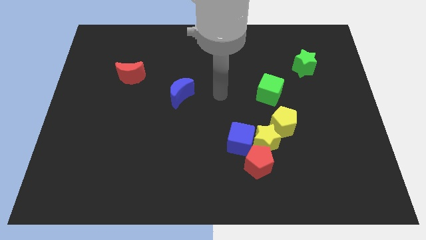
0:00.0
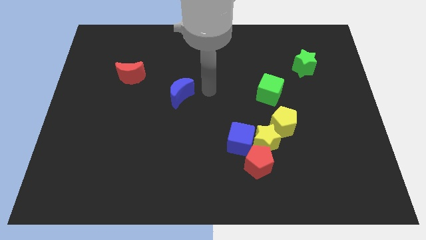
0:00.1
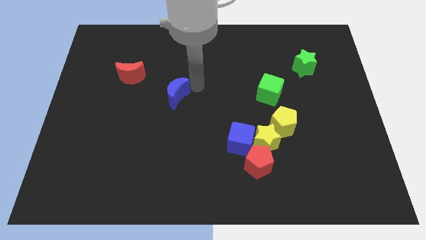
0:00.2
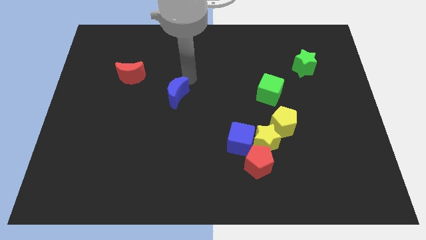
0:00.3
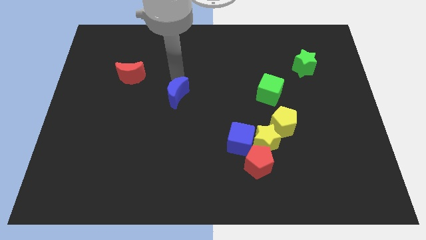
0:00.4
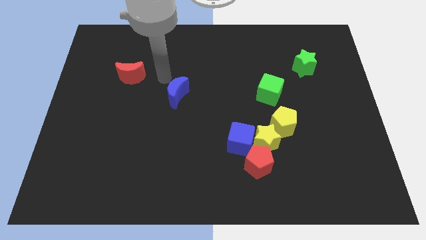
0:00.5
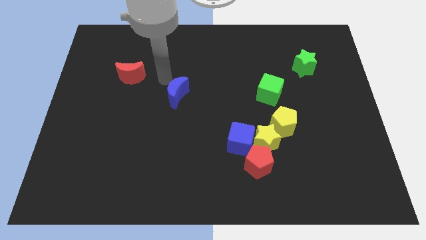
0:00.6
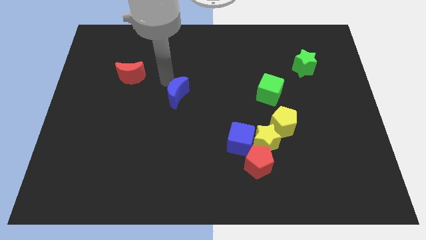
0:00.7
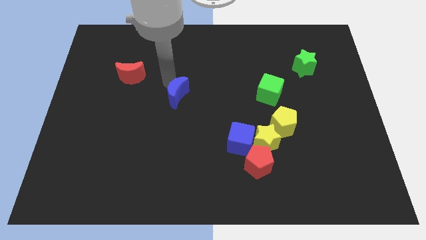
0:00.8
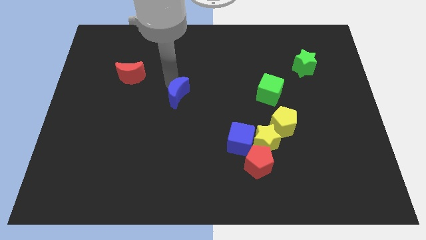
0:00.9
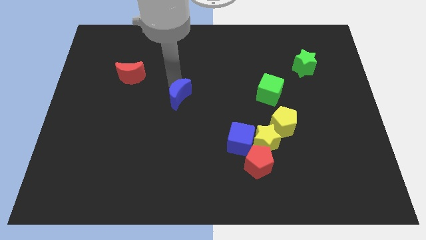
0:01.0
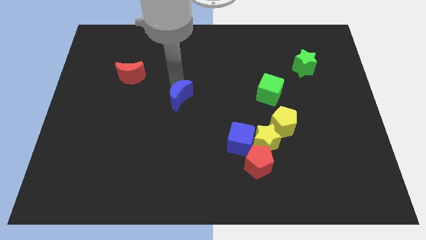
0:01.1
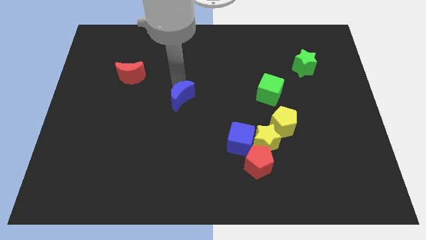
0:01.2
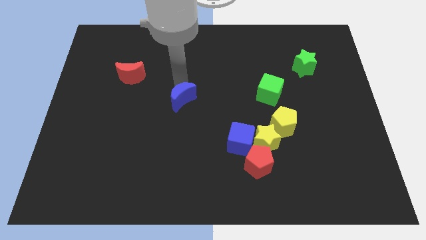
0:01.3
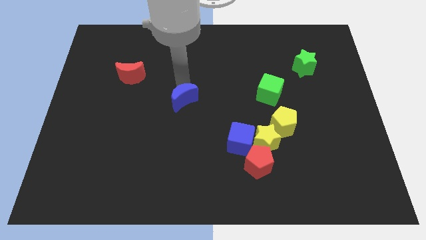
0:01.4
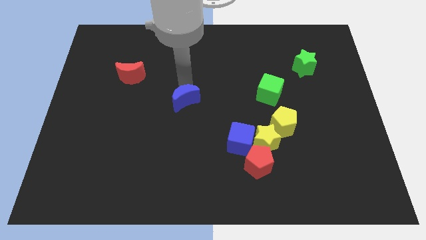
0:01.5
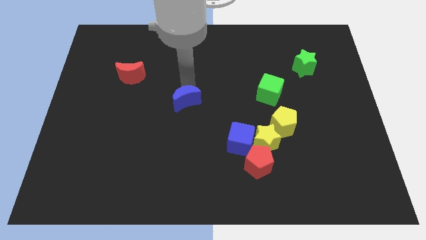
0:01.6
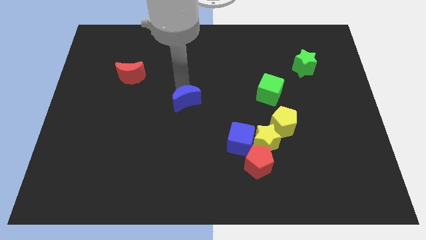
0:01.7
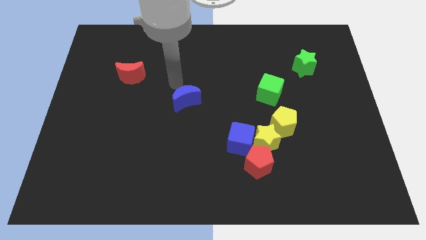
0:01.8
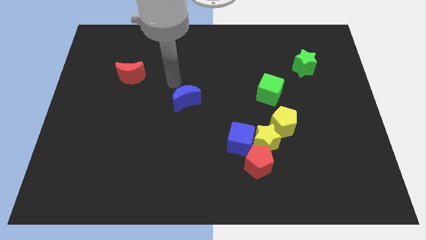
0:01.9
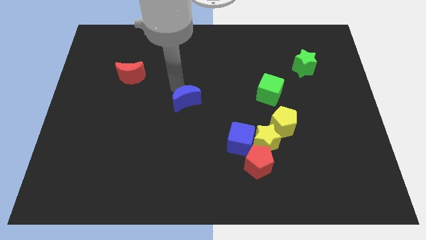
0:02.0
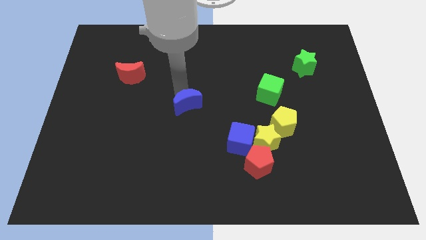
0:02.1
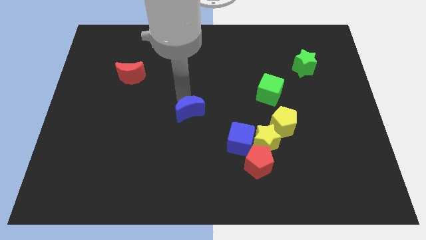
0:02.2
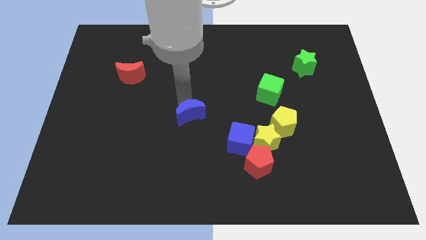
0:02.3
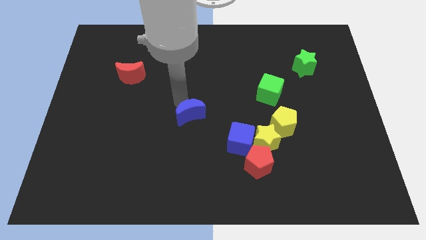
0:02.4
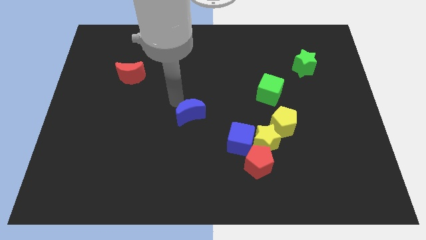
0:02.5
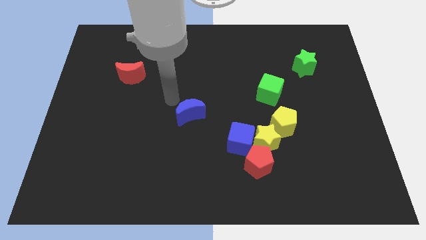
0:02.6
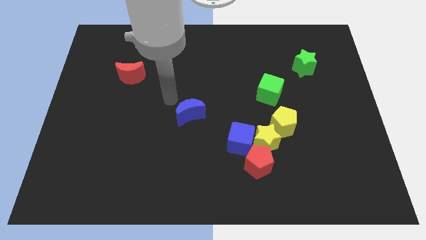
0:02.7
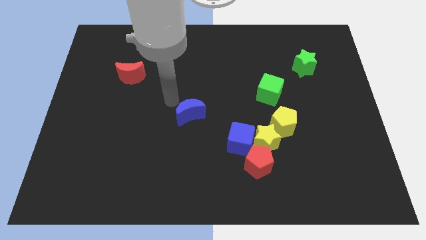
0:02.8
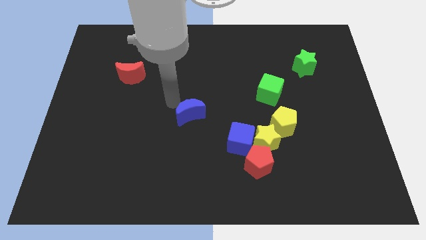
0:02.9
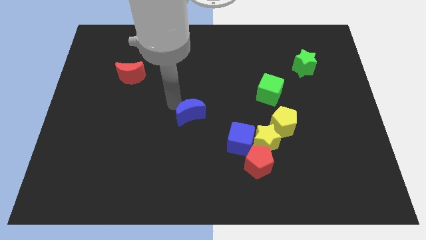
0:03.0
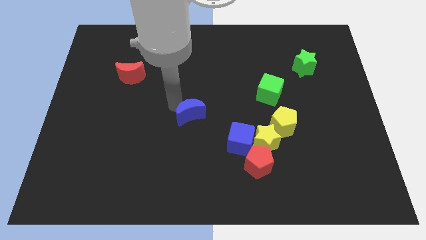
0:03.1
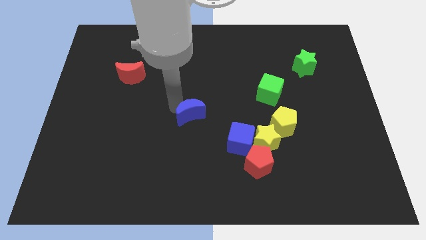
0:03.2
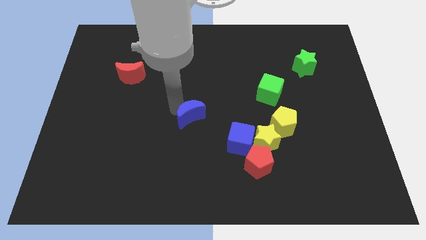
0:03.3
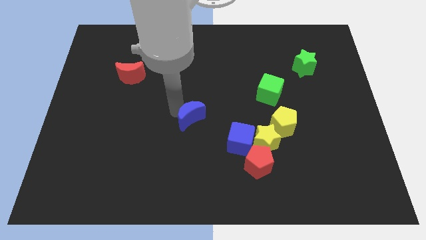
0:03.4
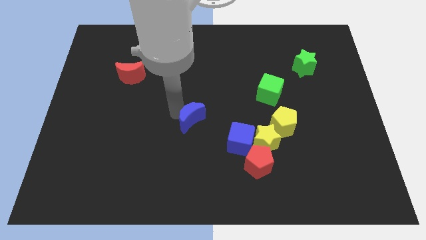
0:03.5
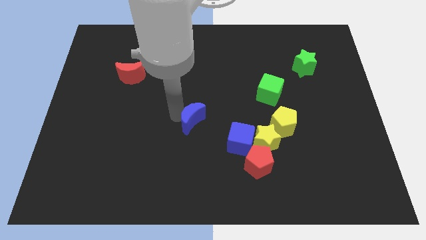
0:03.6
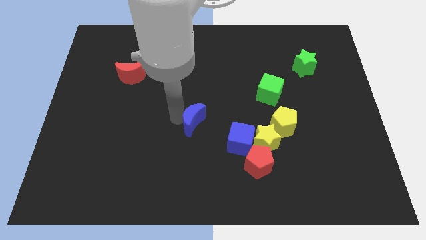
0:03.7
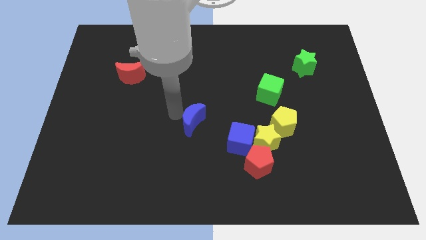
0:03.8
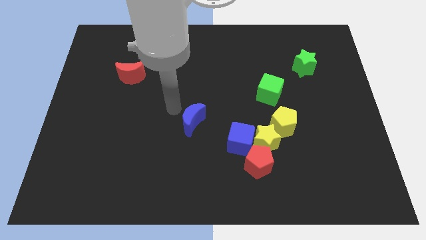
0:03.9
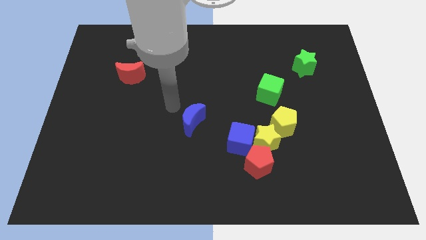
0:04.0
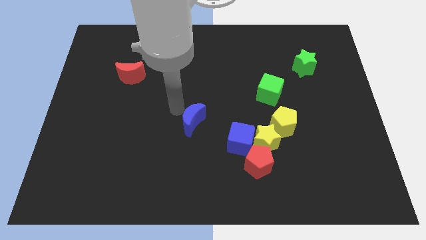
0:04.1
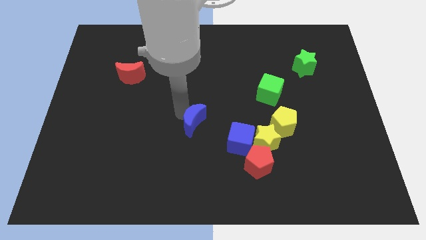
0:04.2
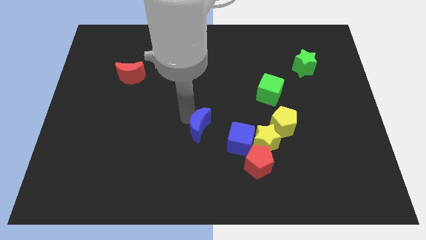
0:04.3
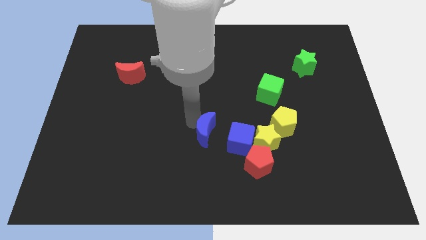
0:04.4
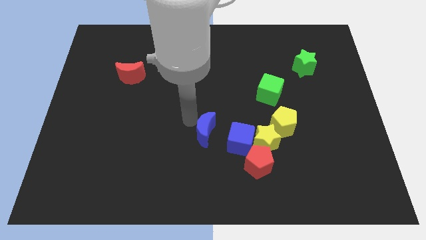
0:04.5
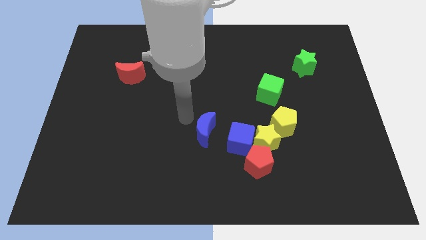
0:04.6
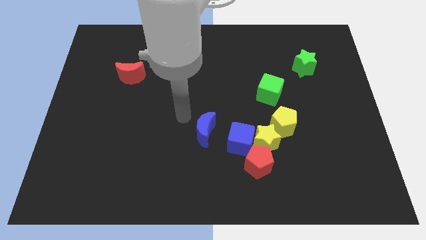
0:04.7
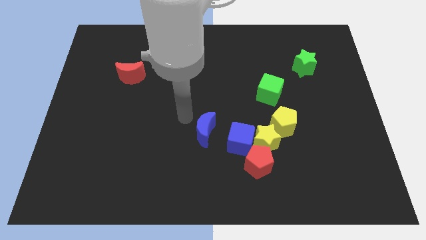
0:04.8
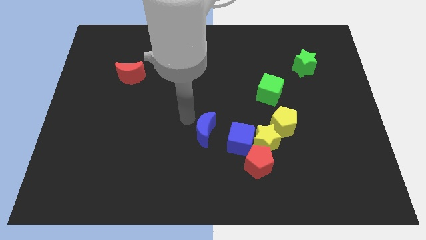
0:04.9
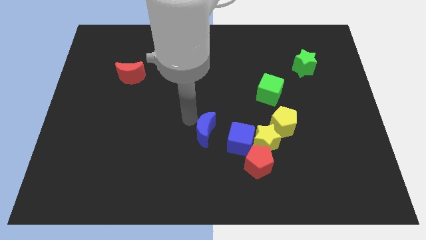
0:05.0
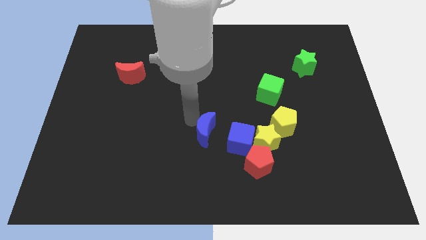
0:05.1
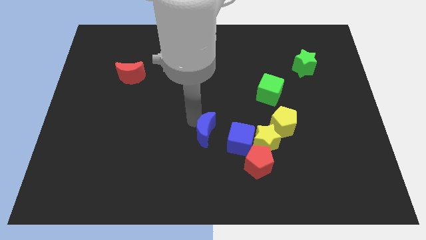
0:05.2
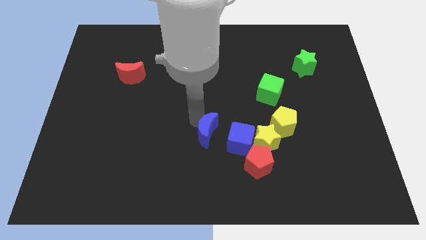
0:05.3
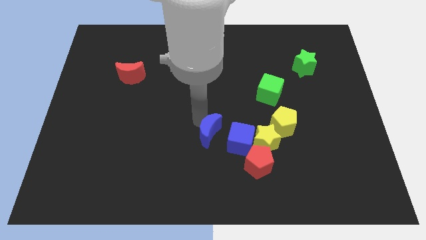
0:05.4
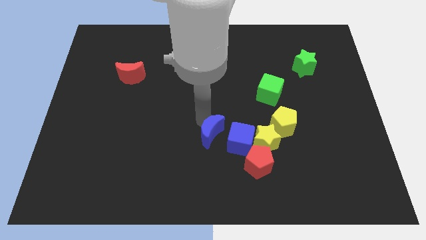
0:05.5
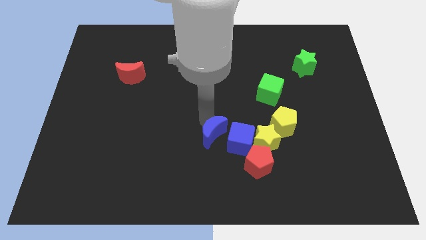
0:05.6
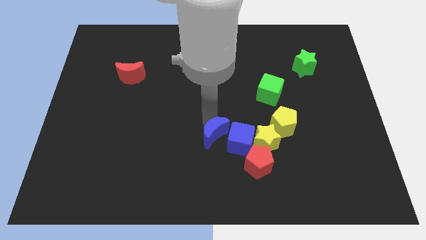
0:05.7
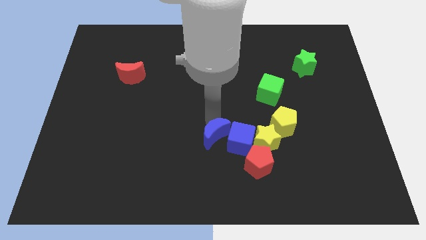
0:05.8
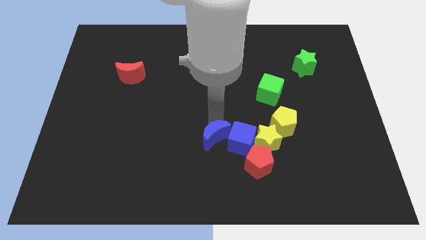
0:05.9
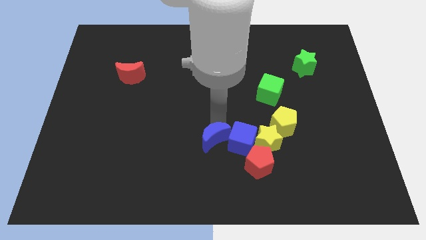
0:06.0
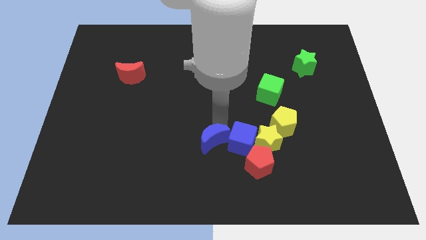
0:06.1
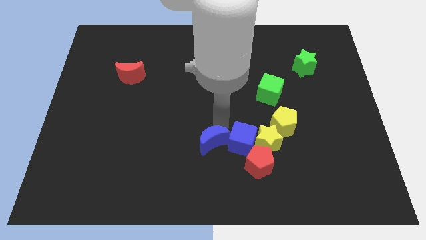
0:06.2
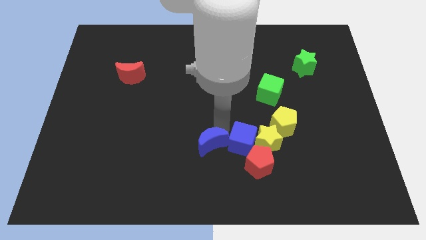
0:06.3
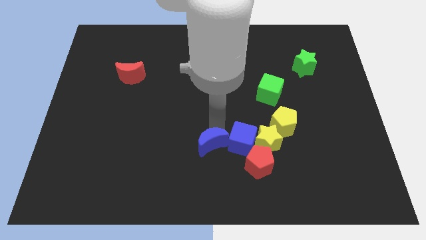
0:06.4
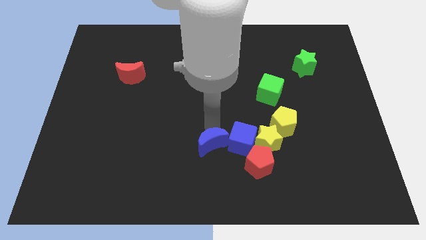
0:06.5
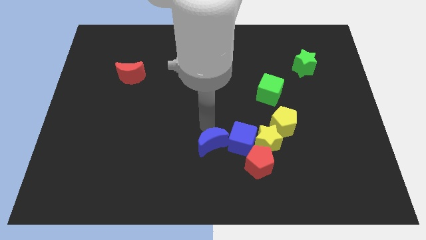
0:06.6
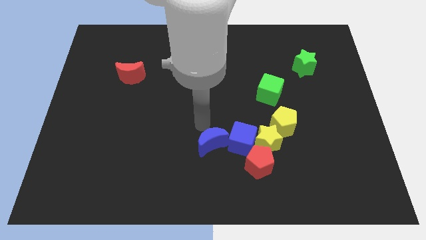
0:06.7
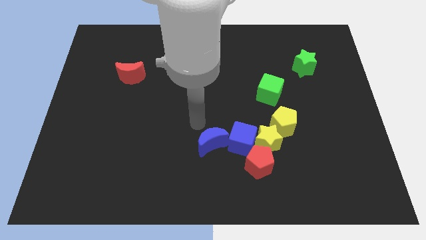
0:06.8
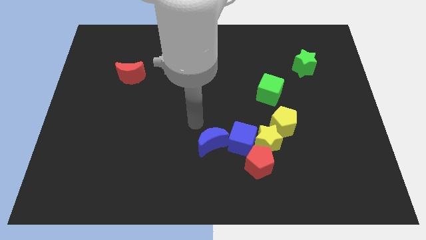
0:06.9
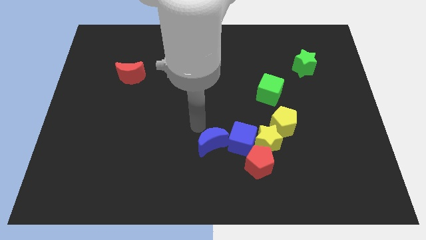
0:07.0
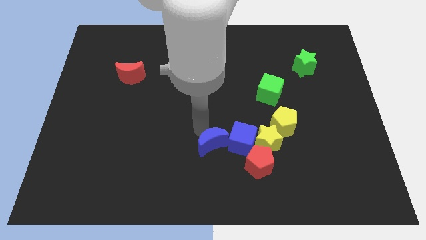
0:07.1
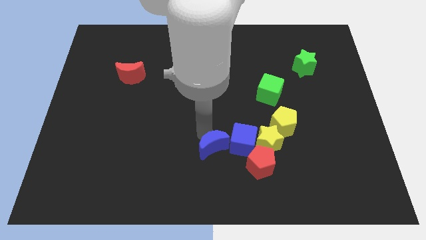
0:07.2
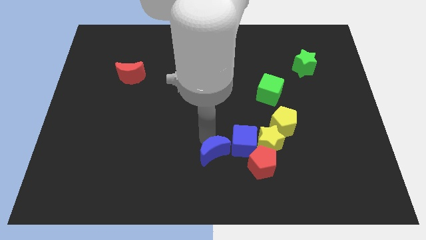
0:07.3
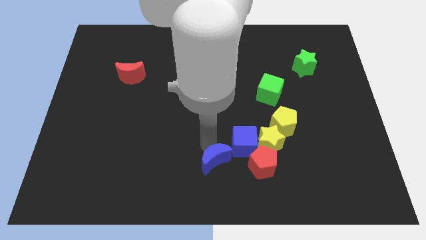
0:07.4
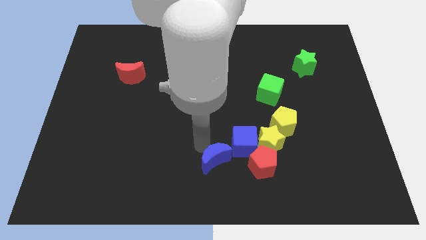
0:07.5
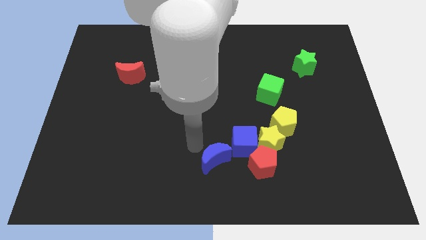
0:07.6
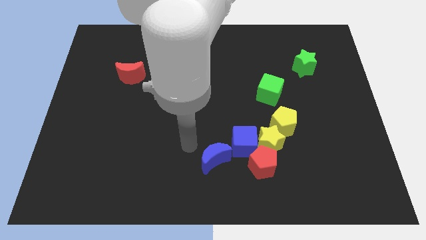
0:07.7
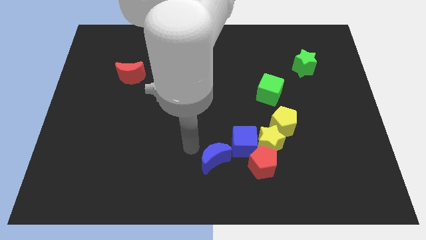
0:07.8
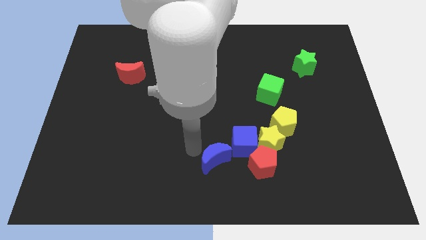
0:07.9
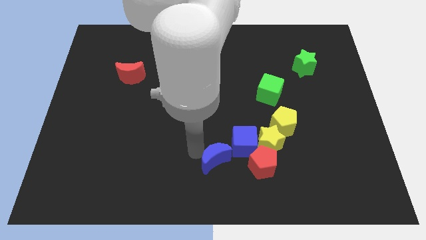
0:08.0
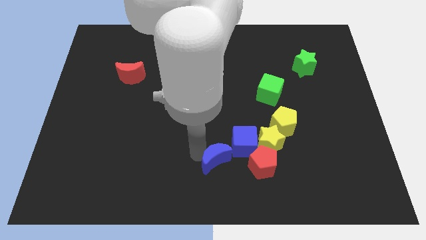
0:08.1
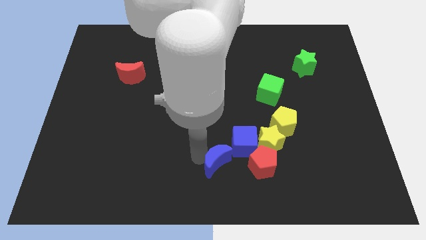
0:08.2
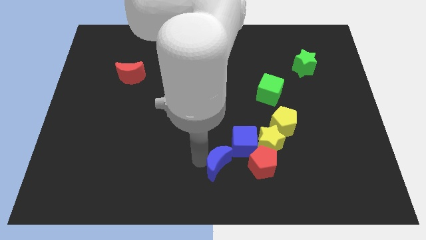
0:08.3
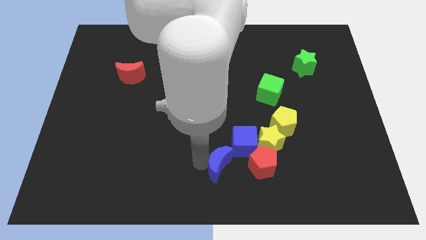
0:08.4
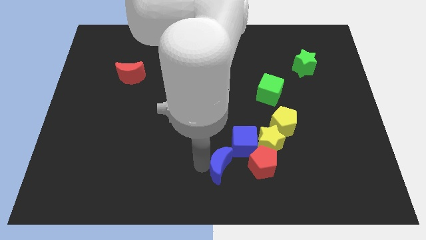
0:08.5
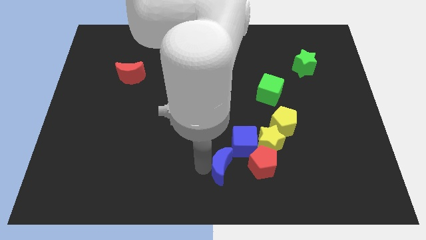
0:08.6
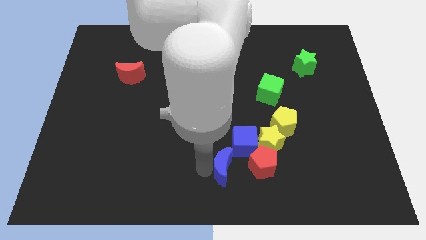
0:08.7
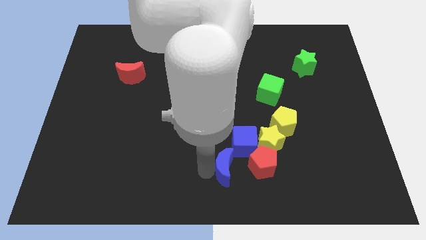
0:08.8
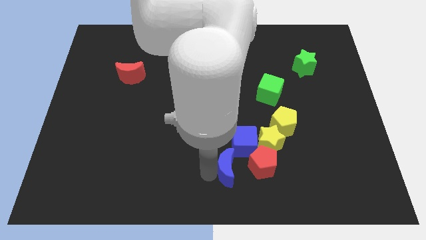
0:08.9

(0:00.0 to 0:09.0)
slide the blue moon downwards and right
